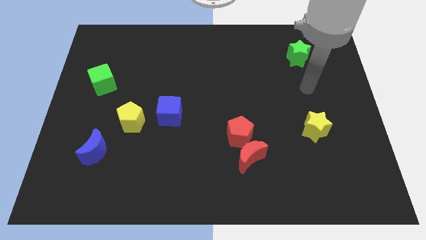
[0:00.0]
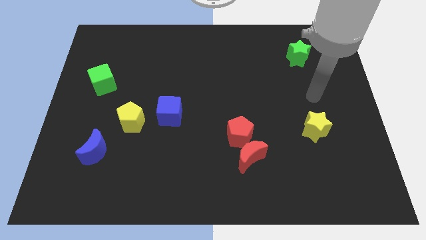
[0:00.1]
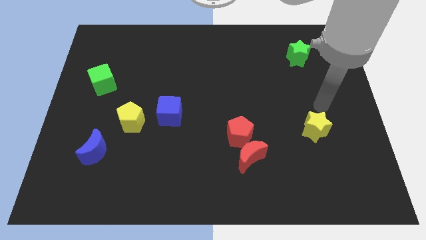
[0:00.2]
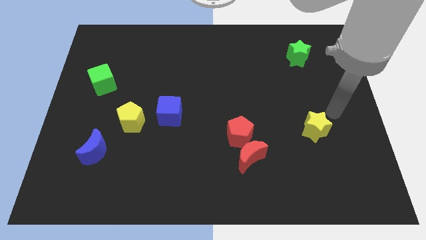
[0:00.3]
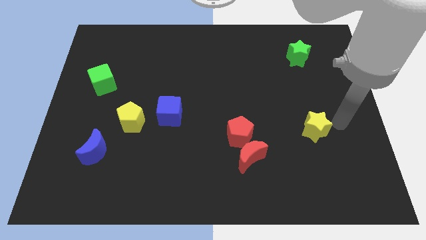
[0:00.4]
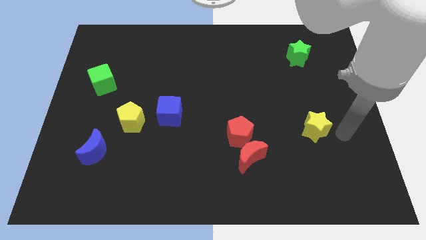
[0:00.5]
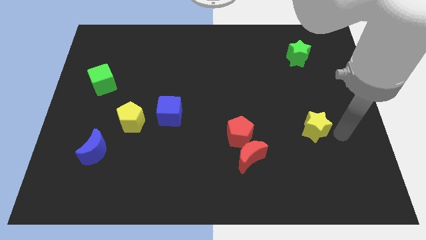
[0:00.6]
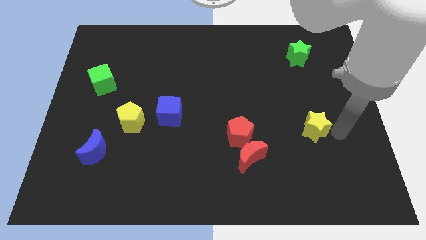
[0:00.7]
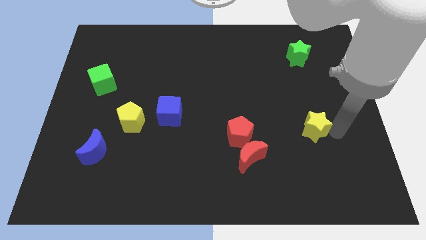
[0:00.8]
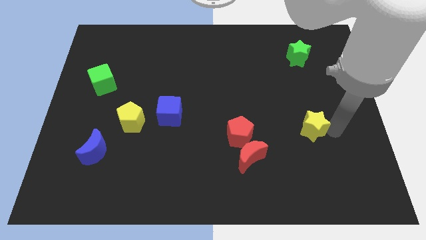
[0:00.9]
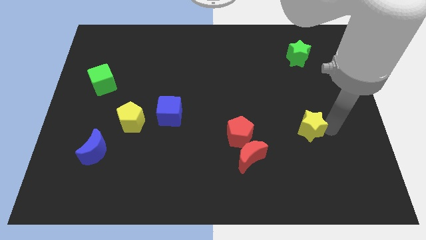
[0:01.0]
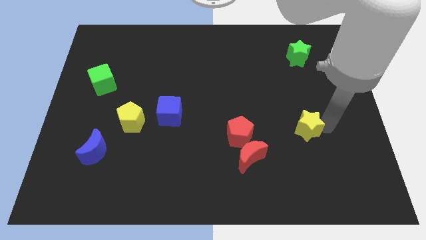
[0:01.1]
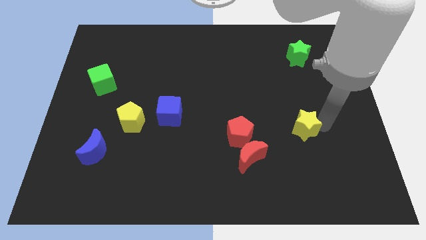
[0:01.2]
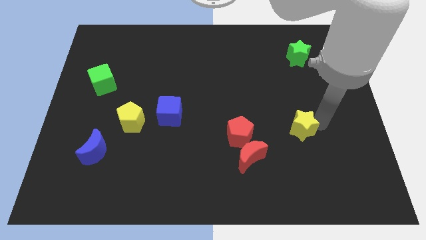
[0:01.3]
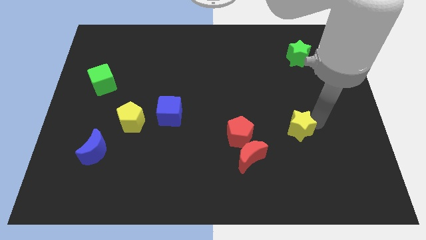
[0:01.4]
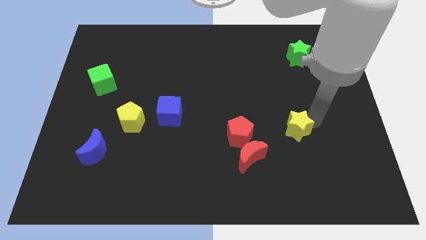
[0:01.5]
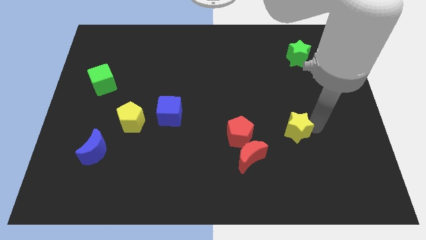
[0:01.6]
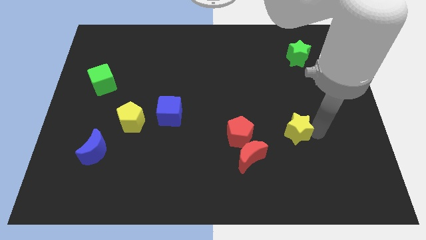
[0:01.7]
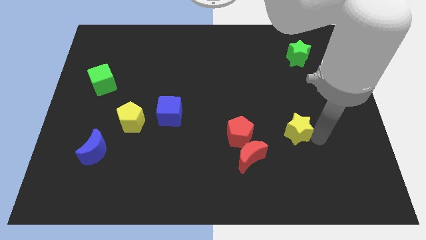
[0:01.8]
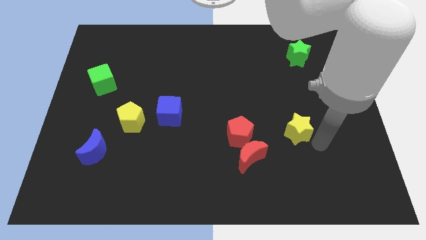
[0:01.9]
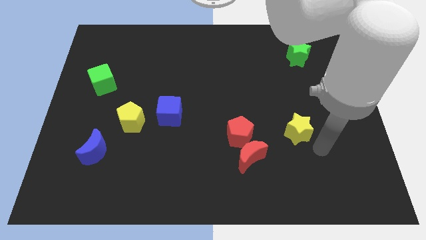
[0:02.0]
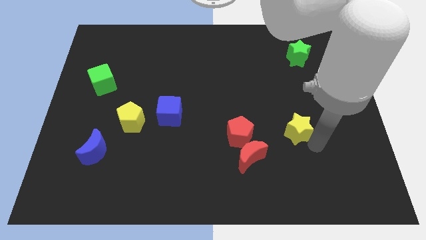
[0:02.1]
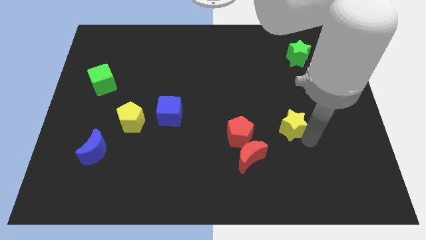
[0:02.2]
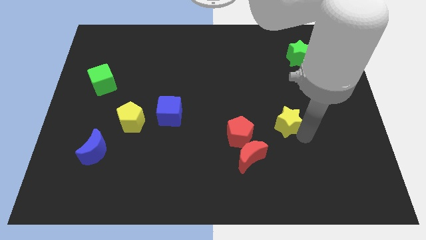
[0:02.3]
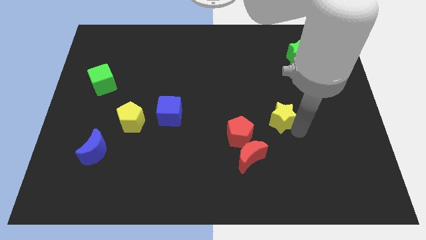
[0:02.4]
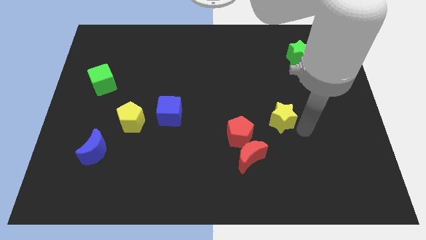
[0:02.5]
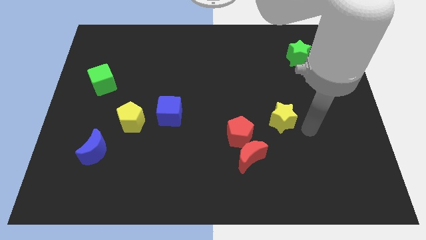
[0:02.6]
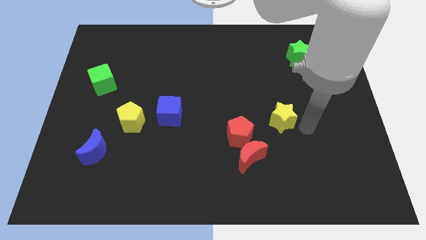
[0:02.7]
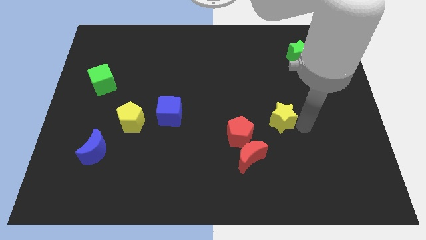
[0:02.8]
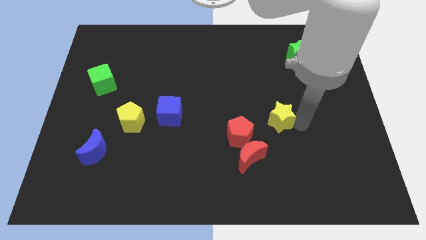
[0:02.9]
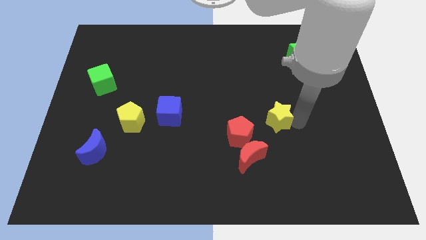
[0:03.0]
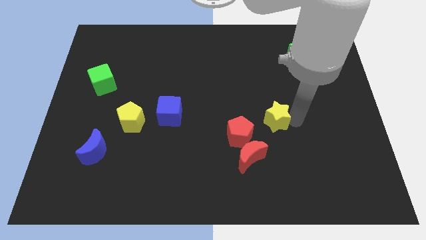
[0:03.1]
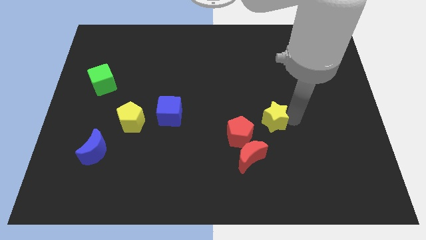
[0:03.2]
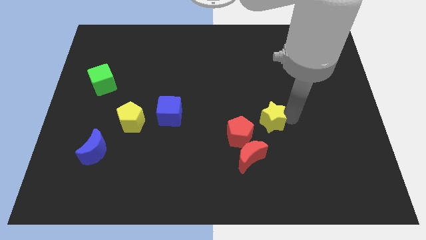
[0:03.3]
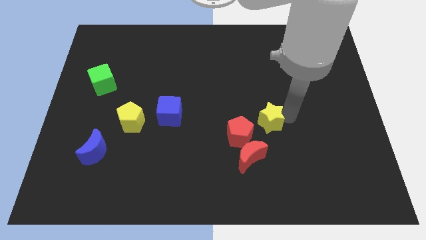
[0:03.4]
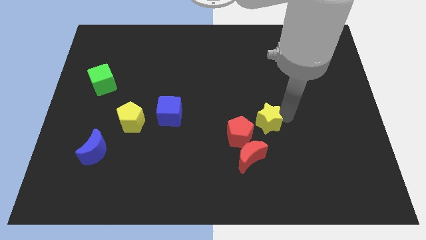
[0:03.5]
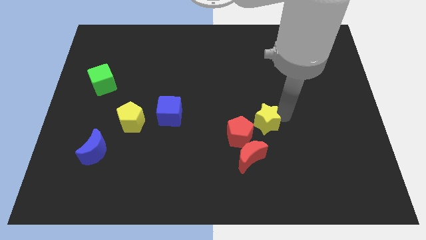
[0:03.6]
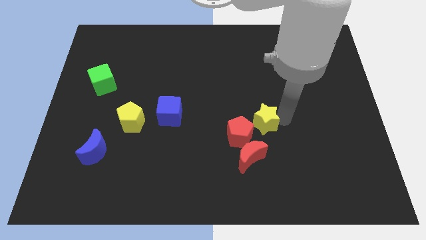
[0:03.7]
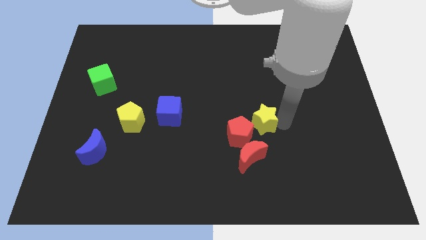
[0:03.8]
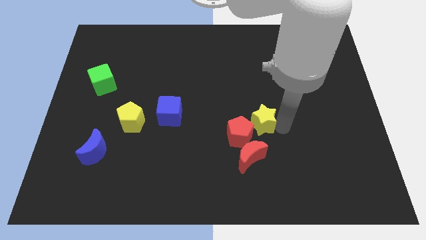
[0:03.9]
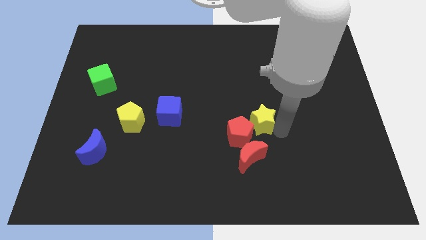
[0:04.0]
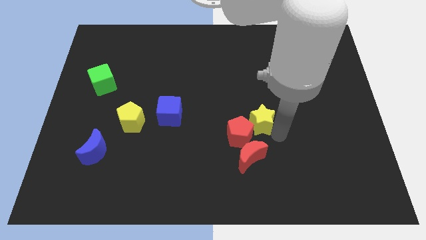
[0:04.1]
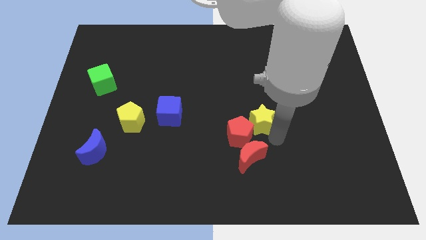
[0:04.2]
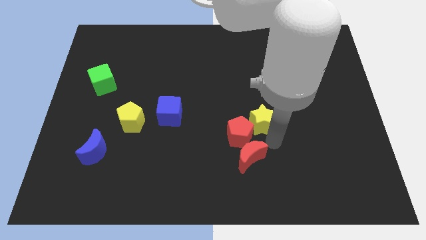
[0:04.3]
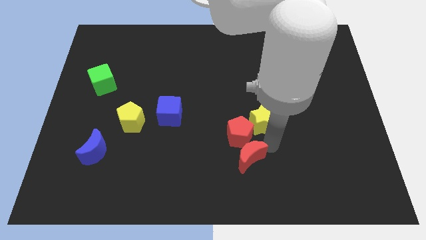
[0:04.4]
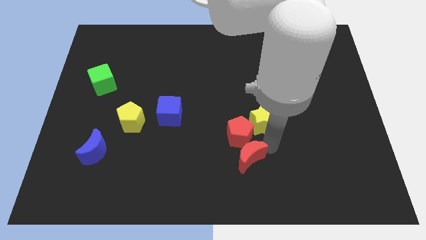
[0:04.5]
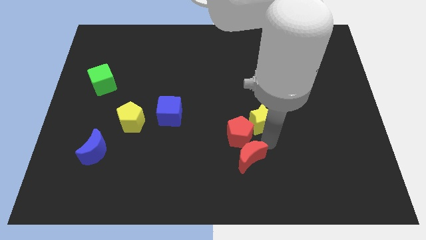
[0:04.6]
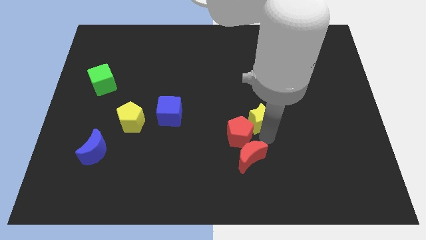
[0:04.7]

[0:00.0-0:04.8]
move the yellow star to the center of the board

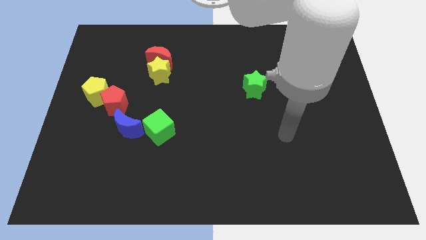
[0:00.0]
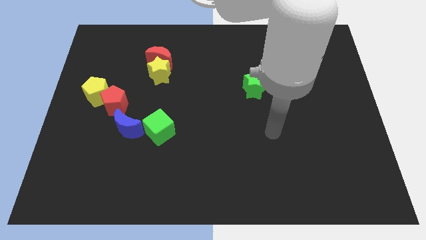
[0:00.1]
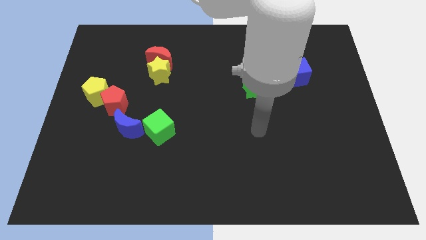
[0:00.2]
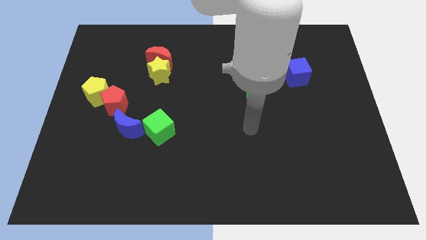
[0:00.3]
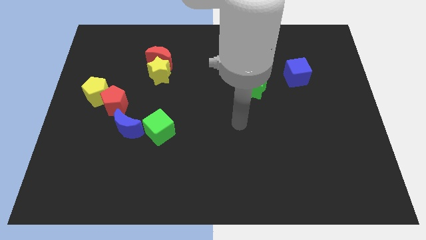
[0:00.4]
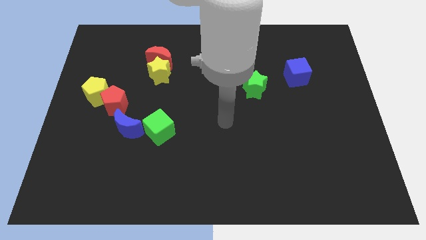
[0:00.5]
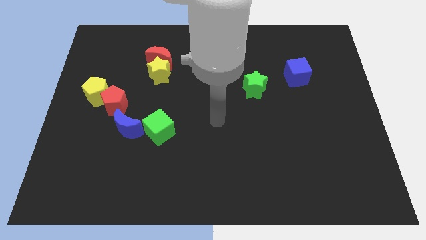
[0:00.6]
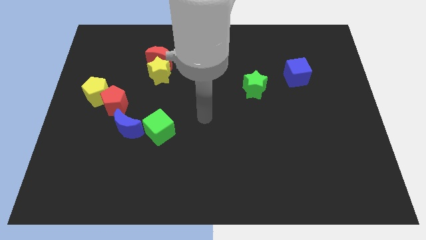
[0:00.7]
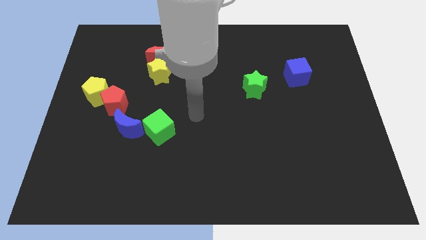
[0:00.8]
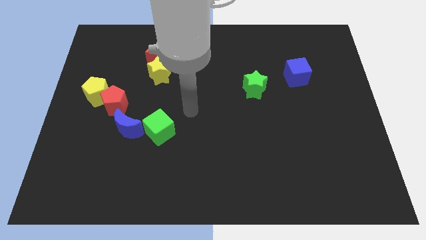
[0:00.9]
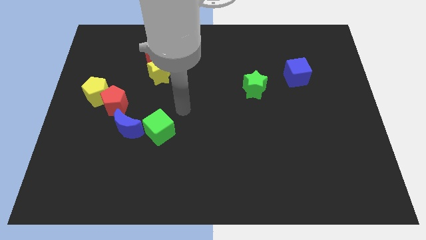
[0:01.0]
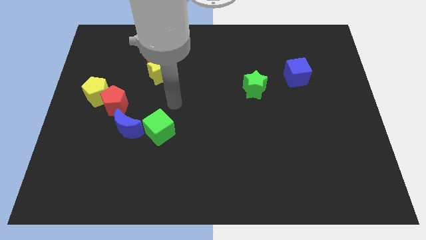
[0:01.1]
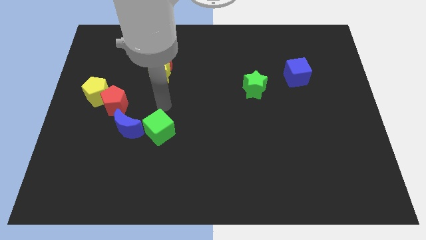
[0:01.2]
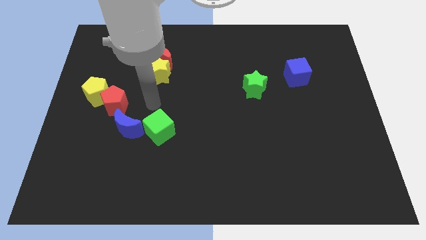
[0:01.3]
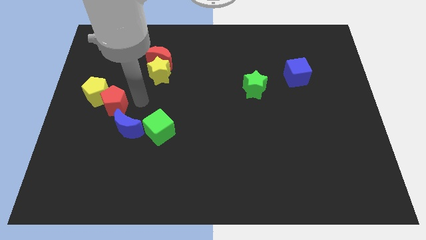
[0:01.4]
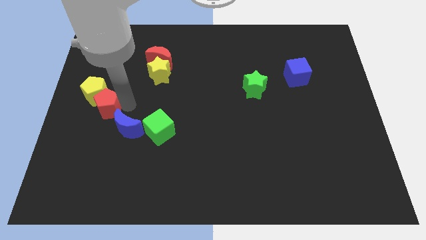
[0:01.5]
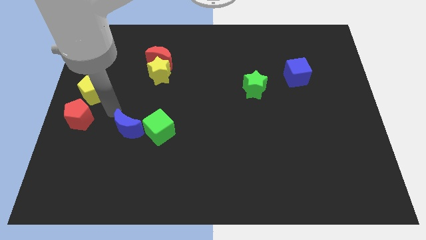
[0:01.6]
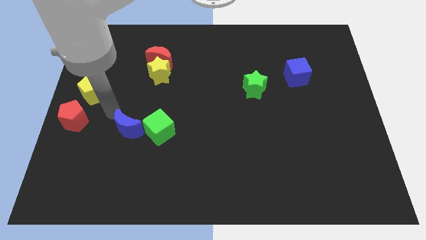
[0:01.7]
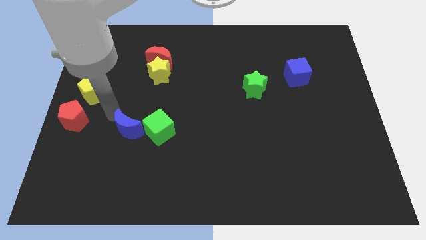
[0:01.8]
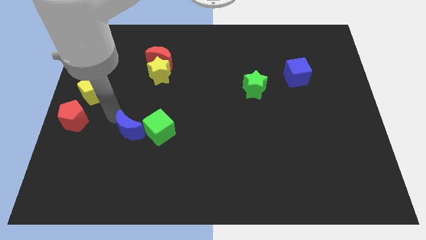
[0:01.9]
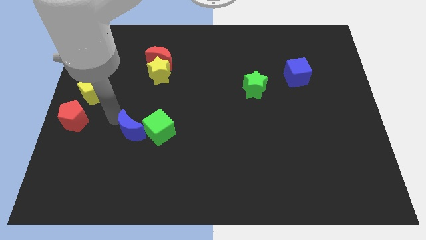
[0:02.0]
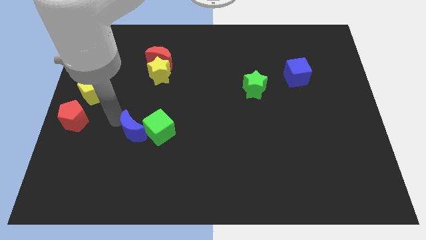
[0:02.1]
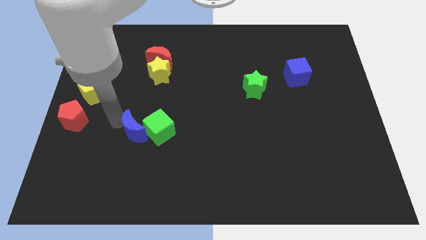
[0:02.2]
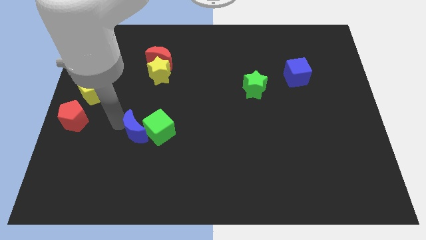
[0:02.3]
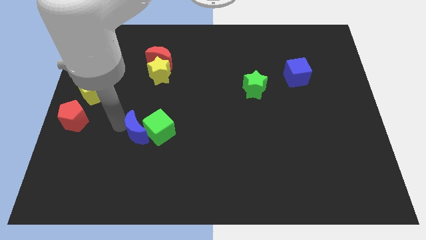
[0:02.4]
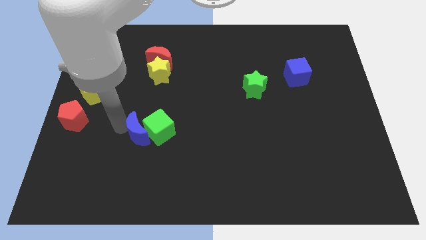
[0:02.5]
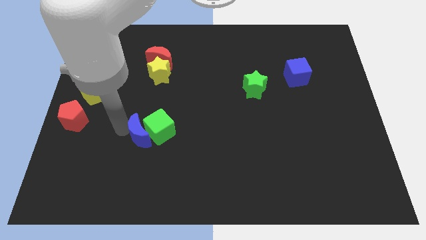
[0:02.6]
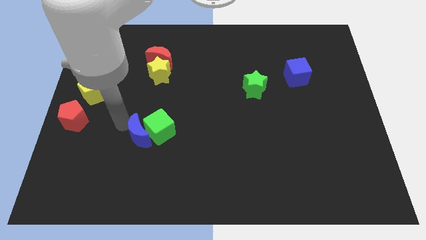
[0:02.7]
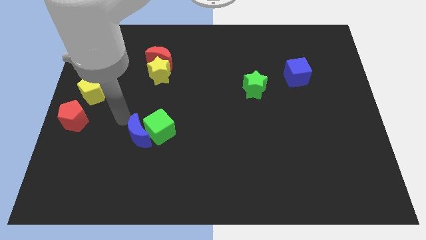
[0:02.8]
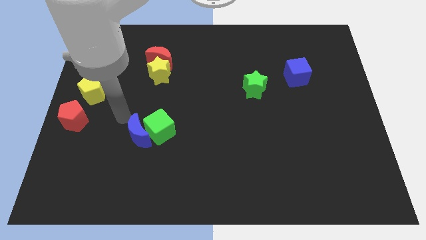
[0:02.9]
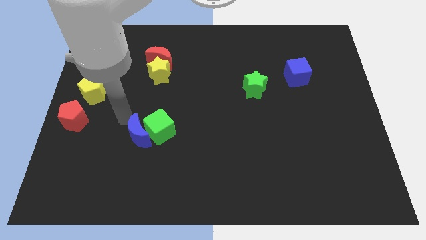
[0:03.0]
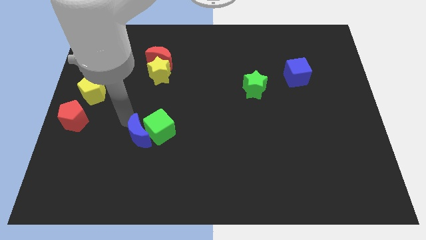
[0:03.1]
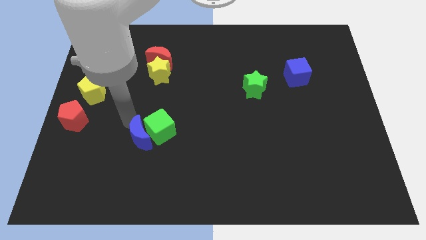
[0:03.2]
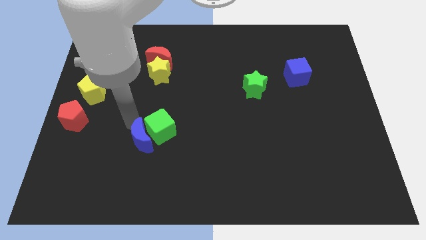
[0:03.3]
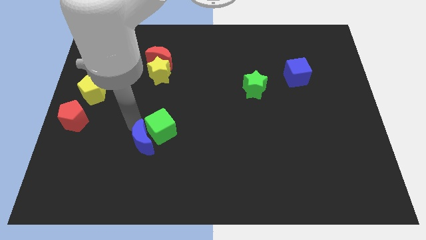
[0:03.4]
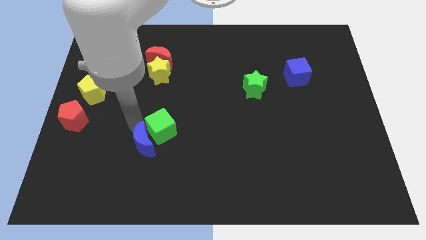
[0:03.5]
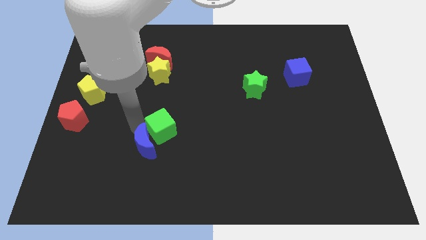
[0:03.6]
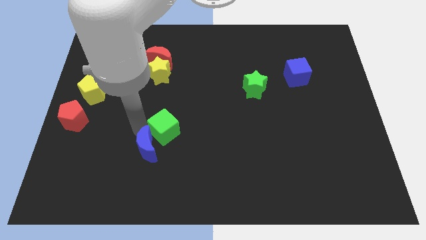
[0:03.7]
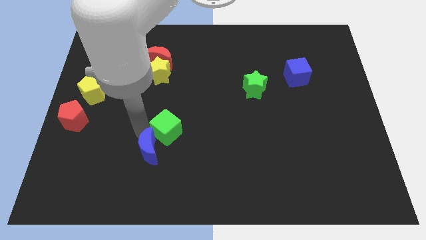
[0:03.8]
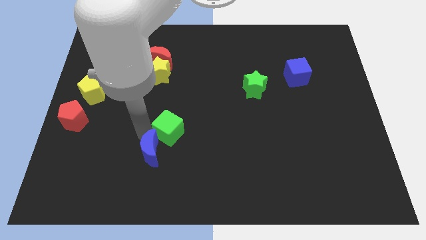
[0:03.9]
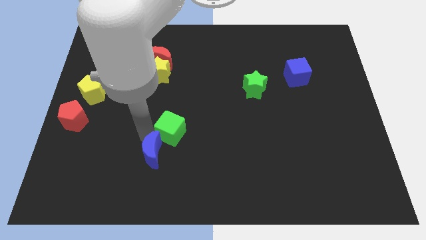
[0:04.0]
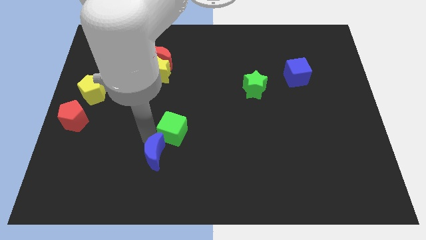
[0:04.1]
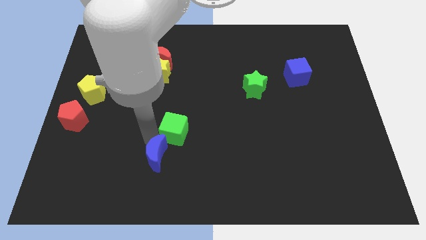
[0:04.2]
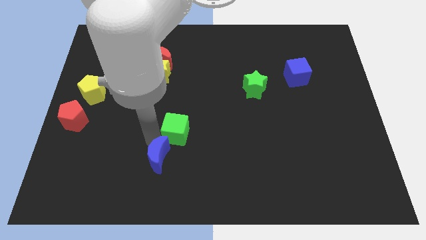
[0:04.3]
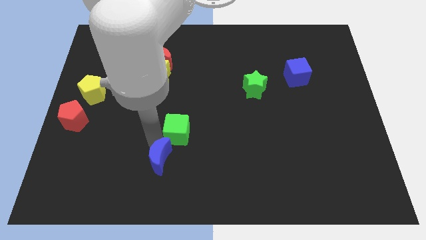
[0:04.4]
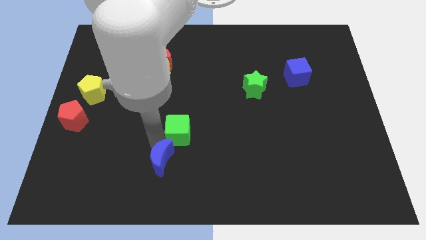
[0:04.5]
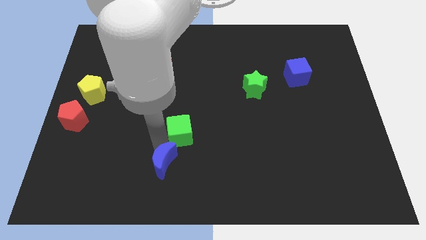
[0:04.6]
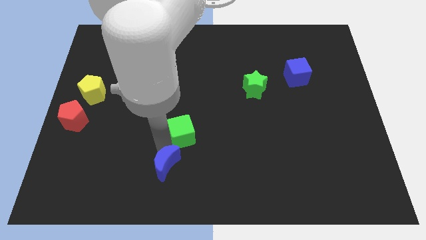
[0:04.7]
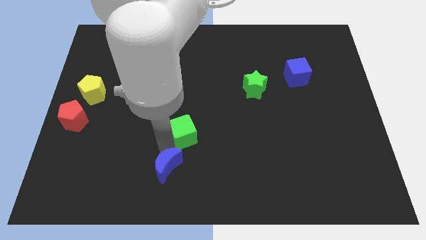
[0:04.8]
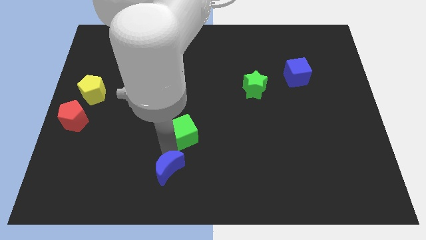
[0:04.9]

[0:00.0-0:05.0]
put the blue moon to the bottom
